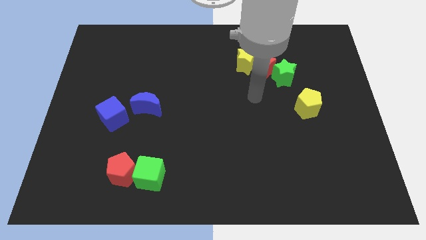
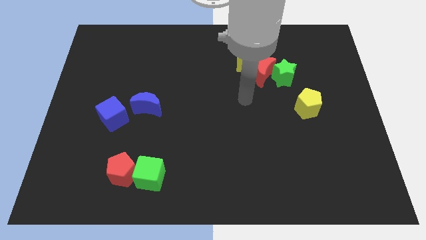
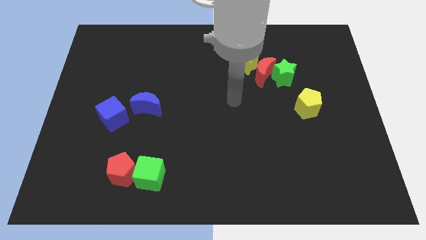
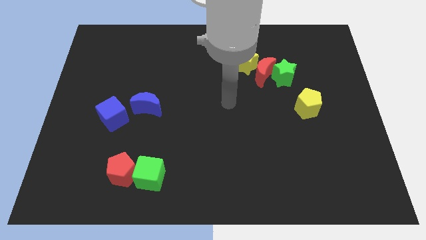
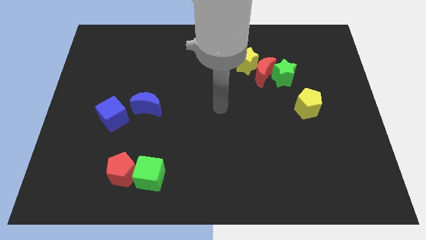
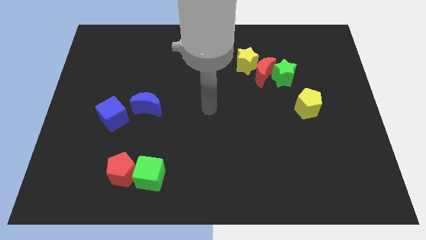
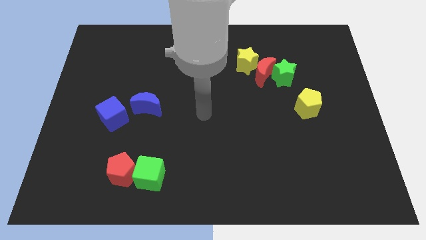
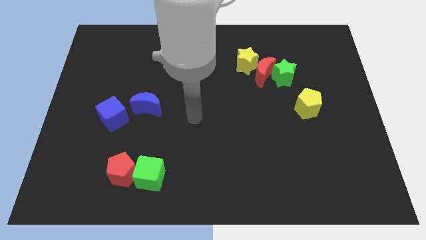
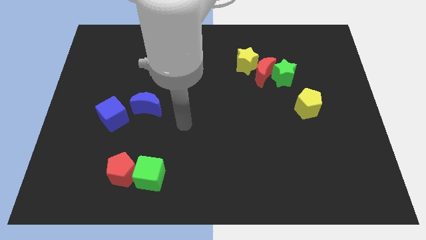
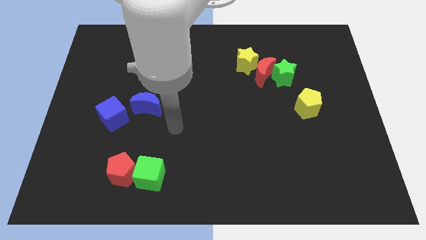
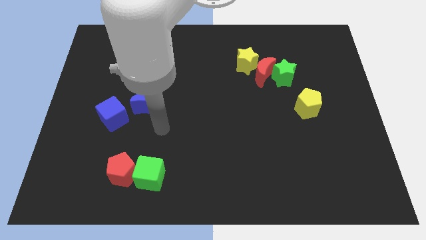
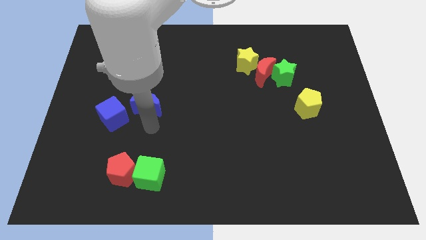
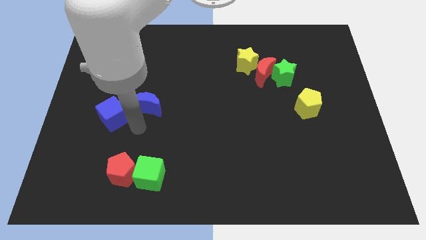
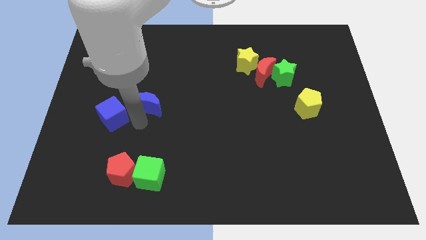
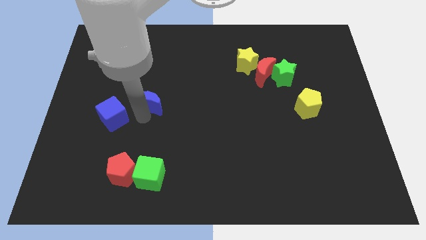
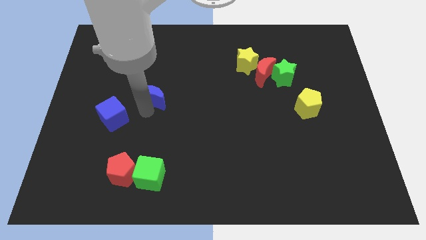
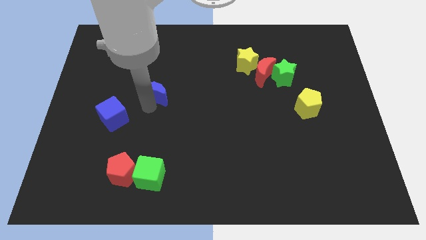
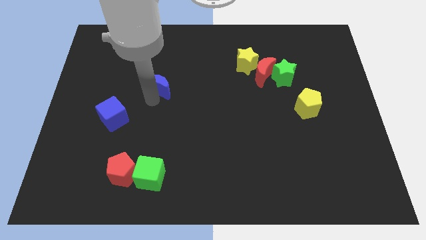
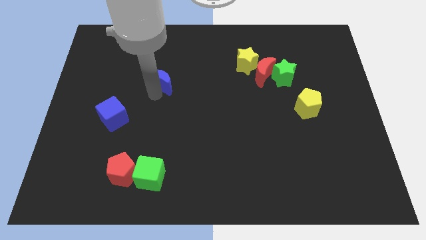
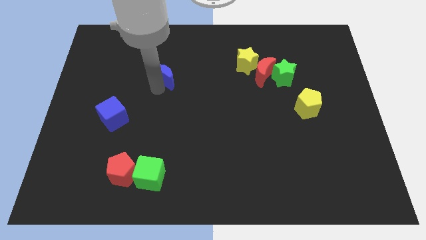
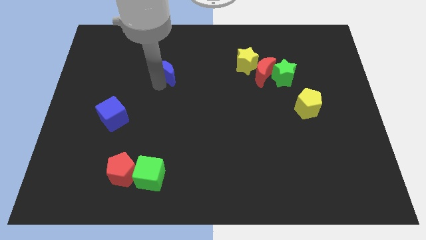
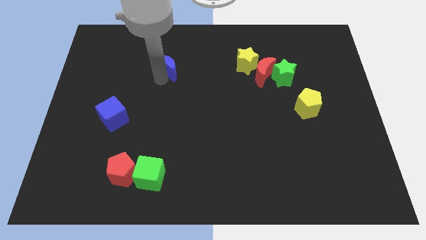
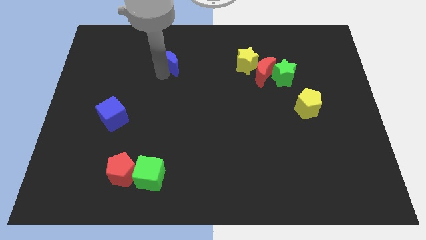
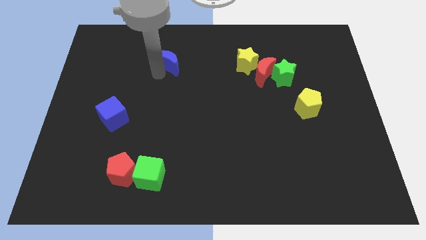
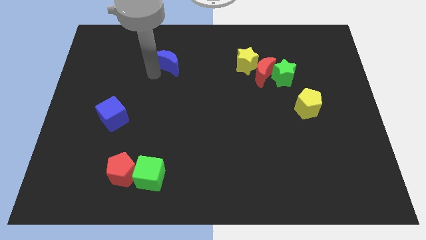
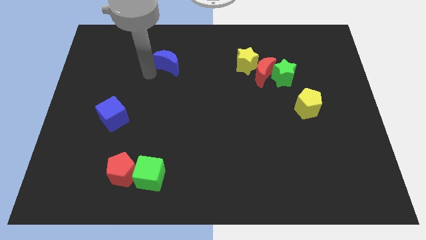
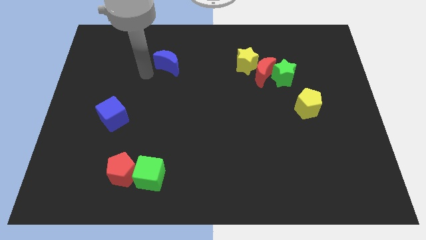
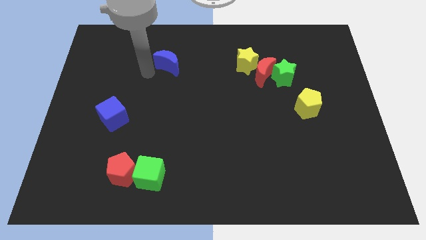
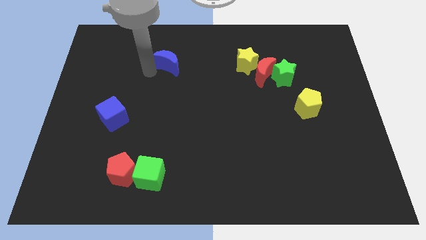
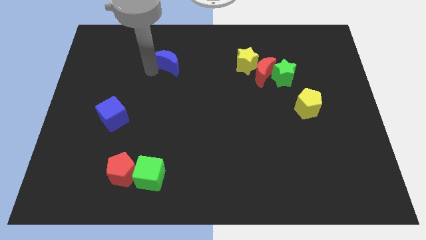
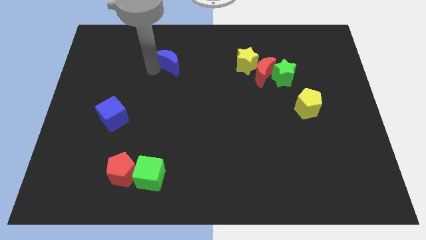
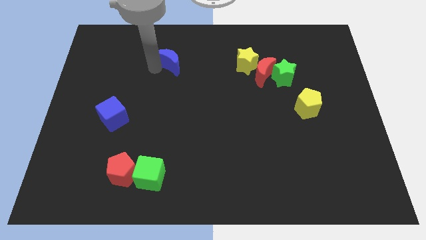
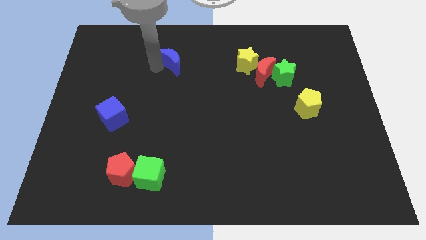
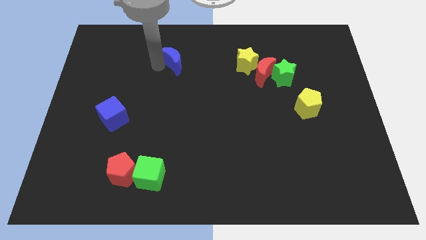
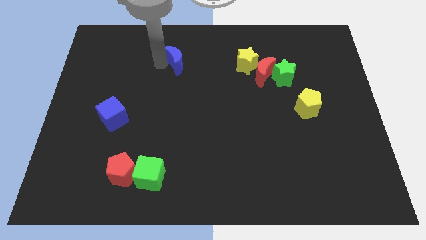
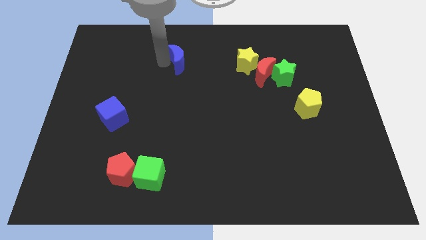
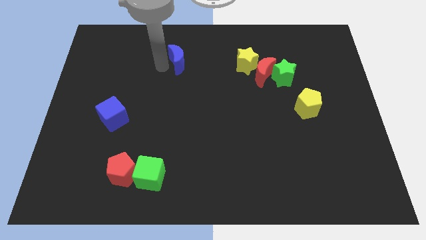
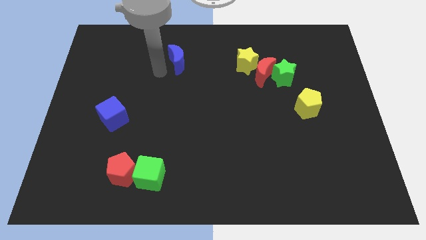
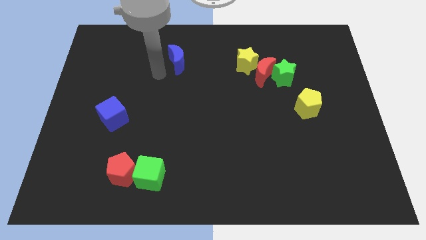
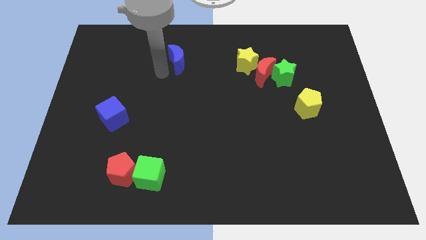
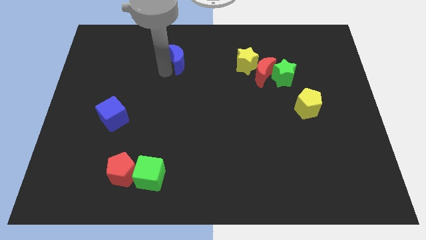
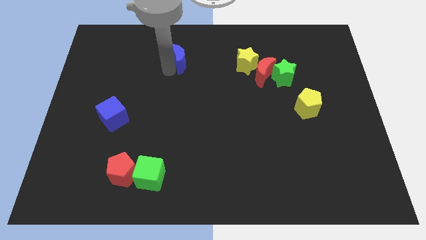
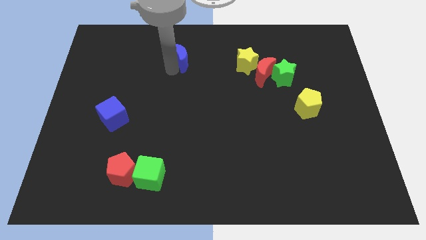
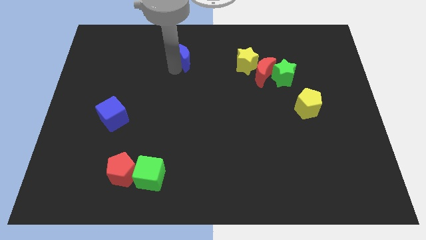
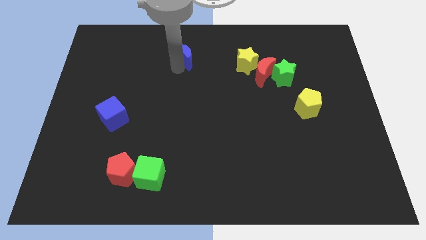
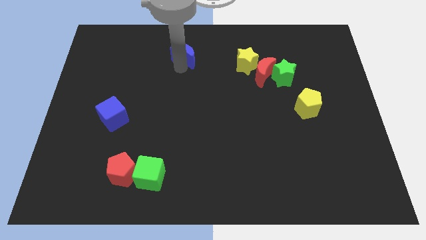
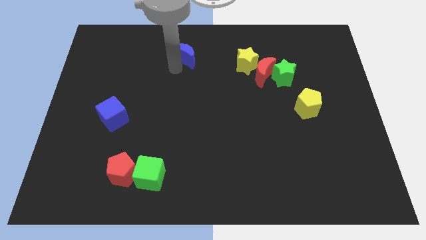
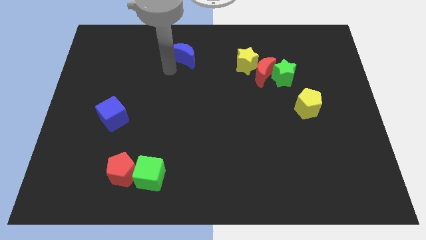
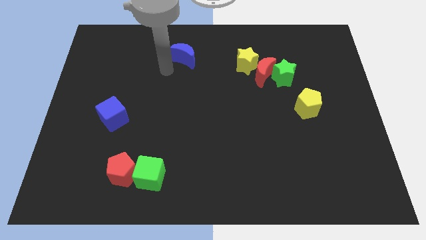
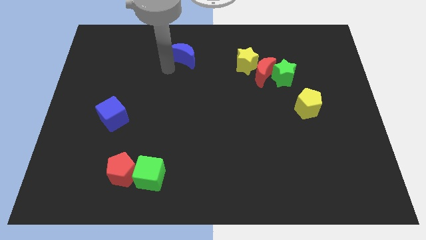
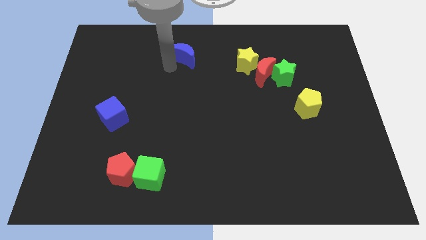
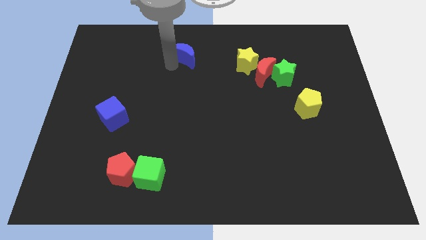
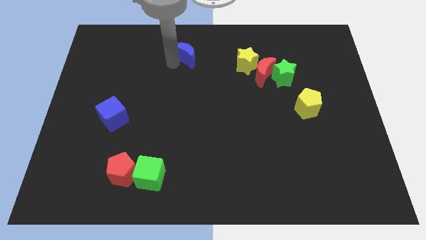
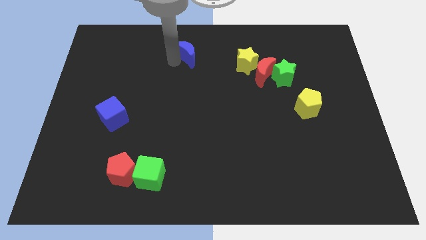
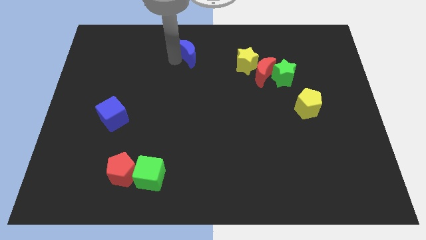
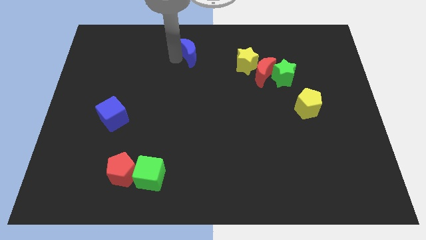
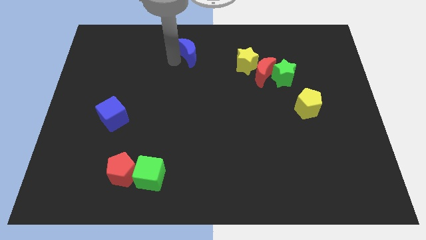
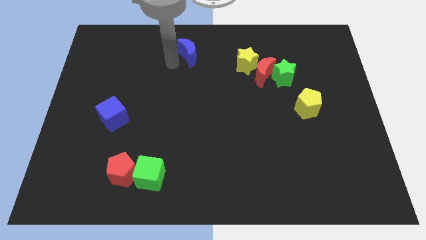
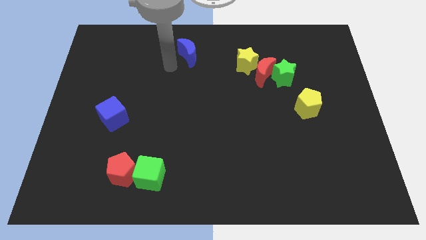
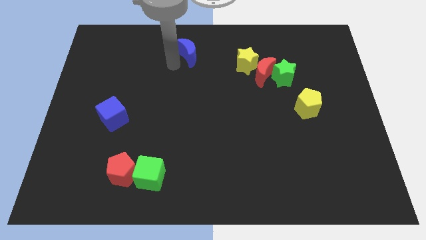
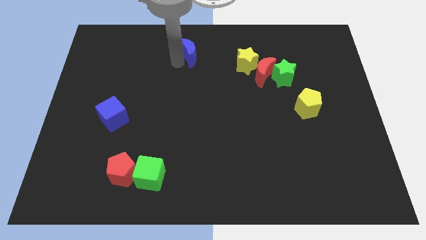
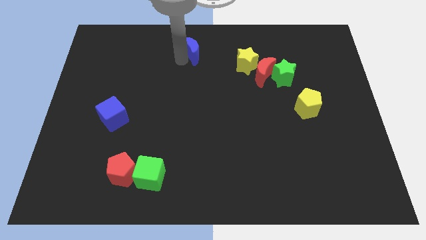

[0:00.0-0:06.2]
push the blue moon to the towards your base

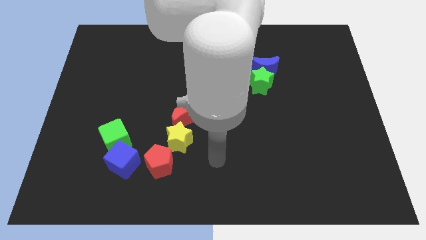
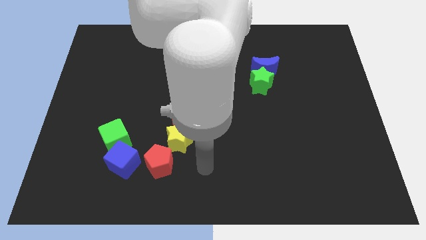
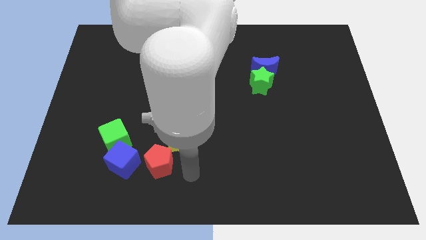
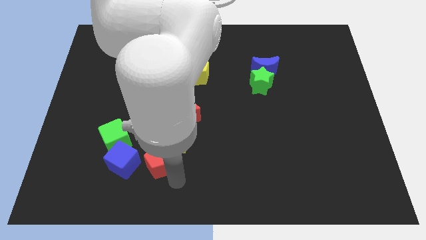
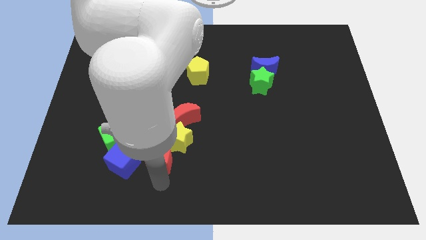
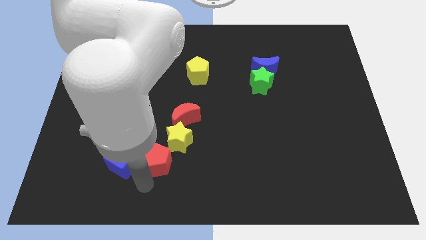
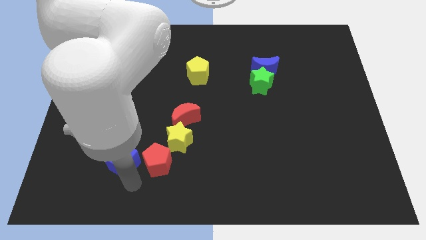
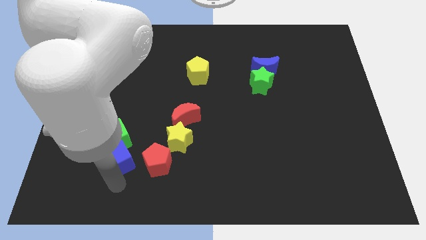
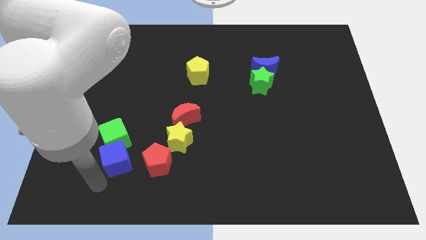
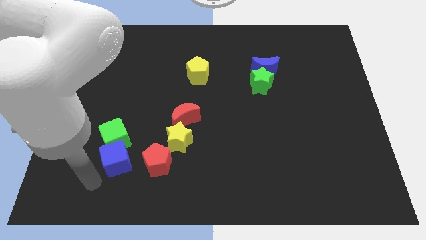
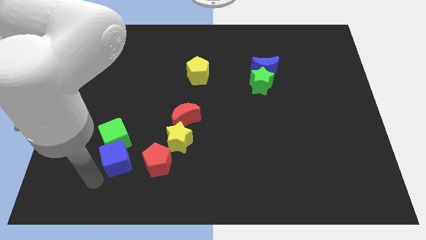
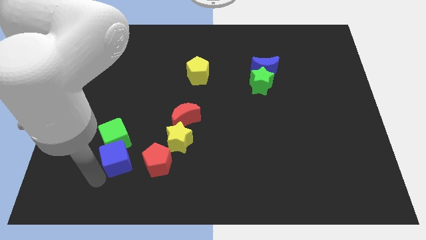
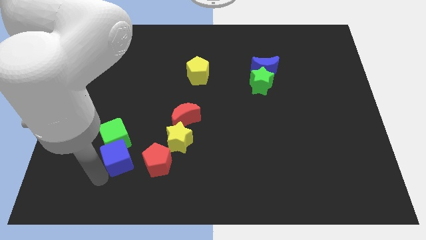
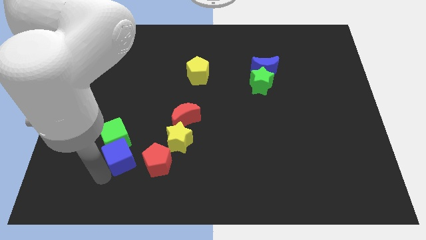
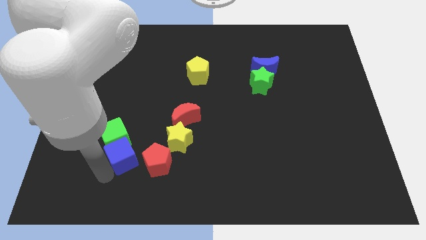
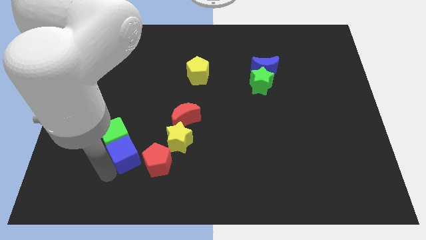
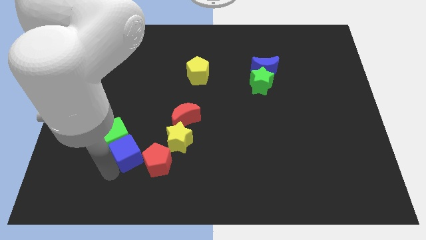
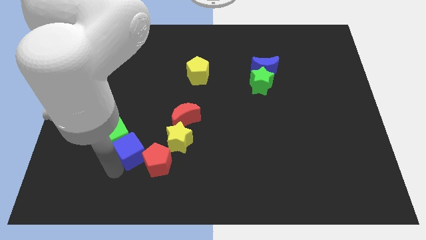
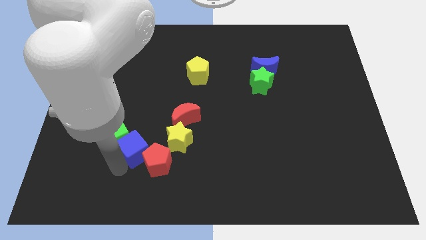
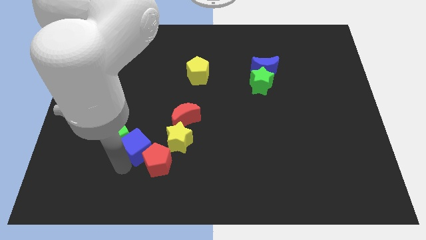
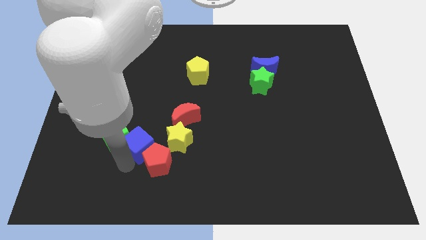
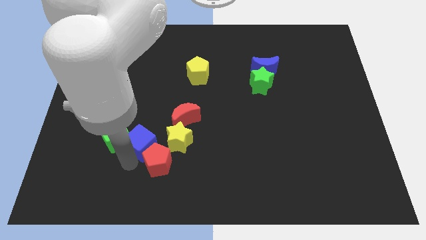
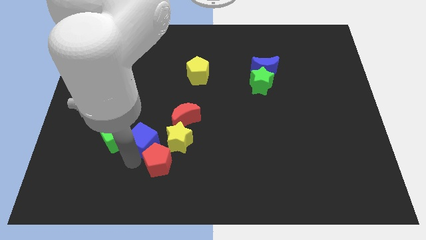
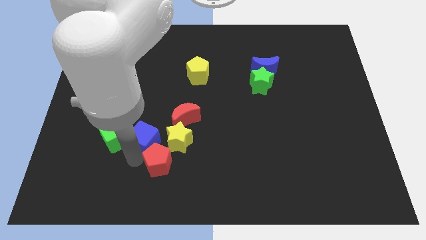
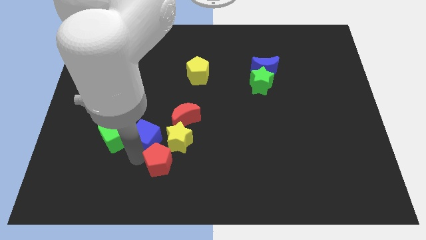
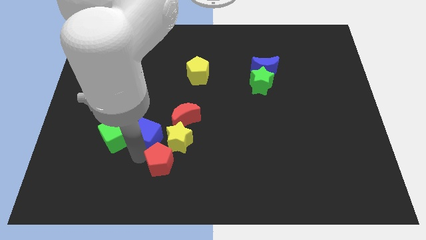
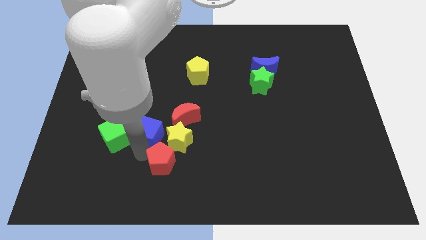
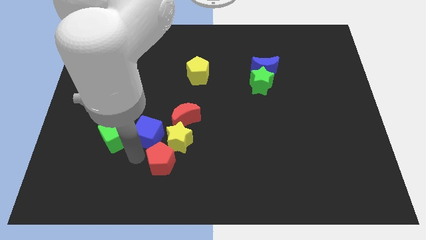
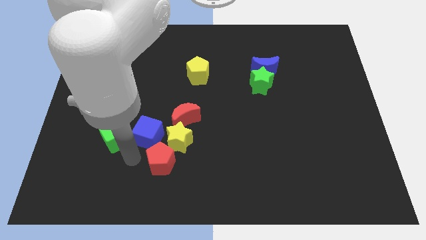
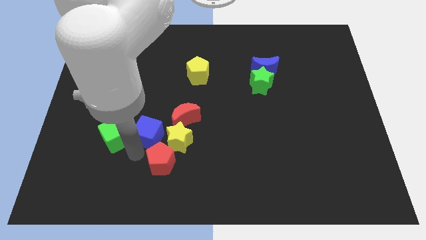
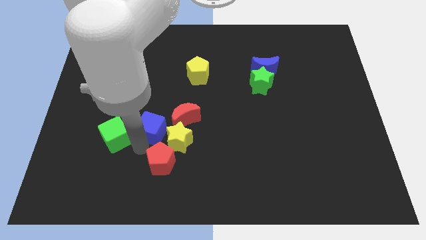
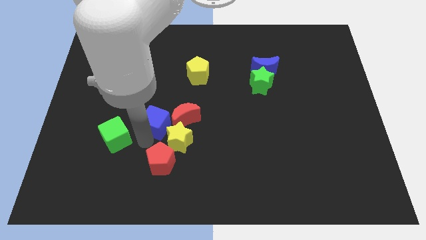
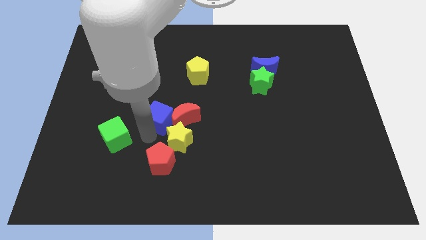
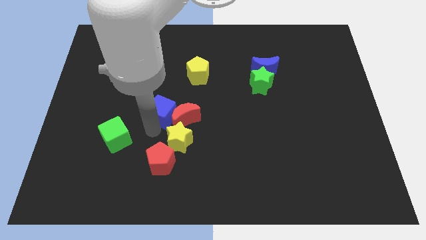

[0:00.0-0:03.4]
push the blue cube to the center of the board
